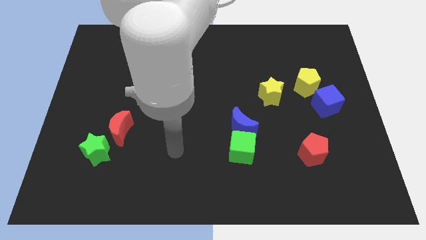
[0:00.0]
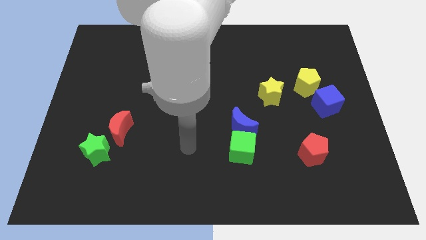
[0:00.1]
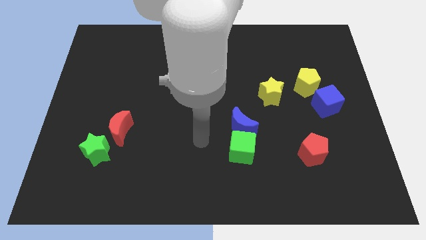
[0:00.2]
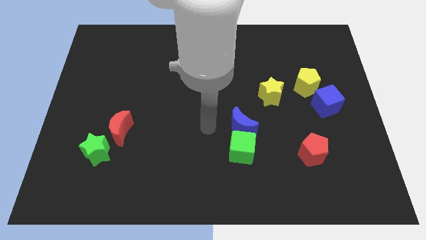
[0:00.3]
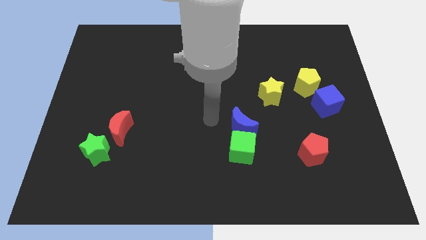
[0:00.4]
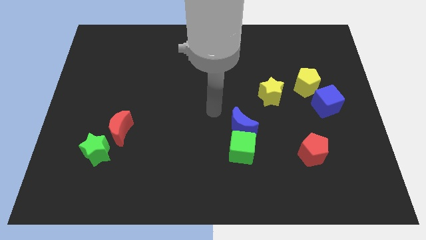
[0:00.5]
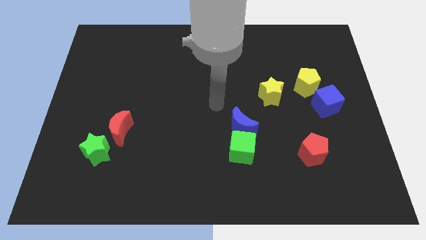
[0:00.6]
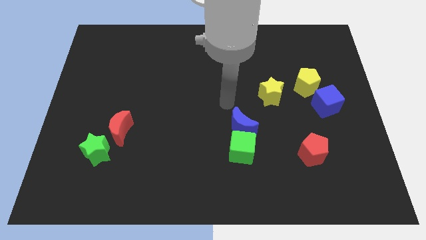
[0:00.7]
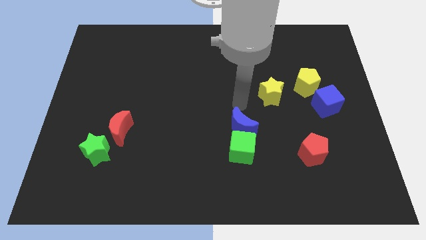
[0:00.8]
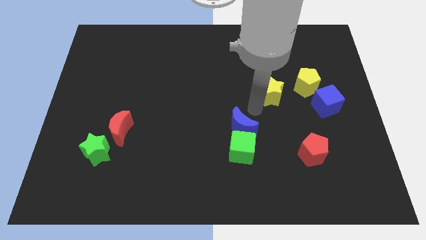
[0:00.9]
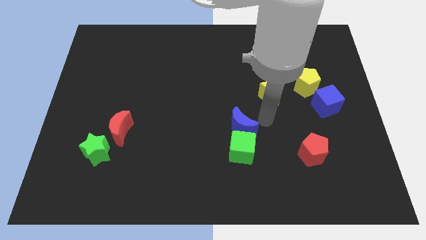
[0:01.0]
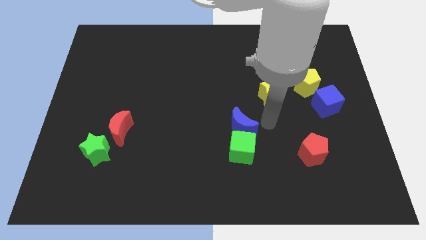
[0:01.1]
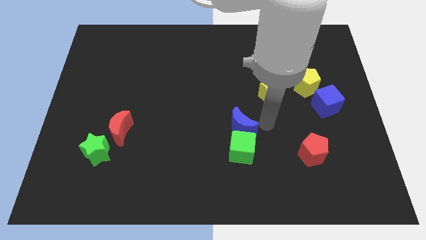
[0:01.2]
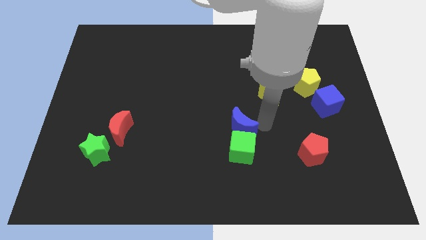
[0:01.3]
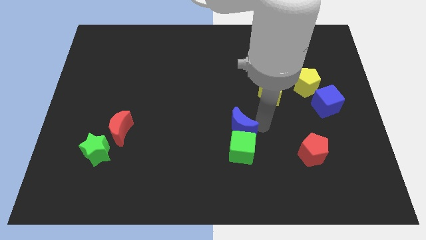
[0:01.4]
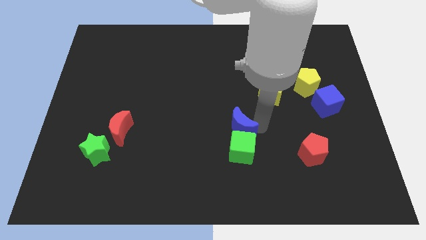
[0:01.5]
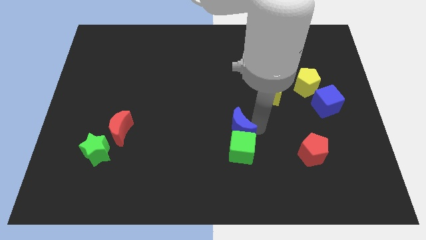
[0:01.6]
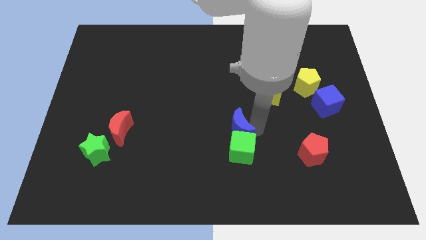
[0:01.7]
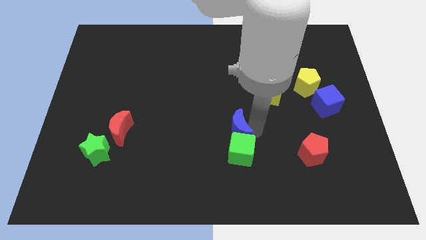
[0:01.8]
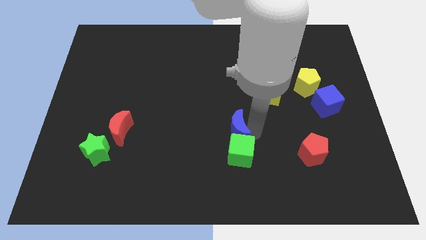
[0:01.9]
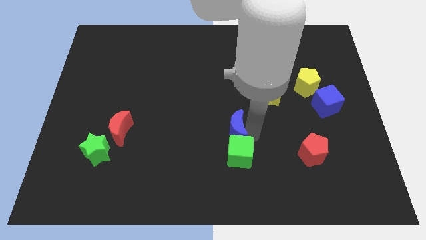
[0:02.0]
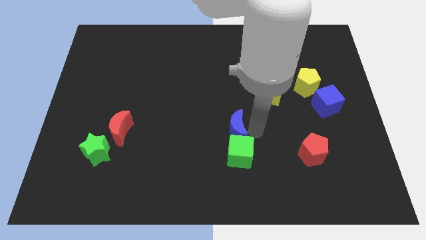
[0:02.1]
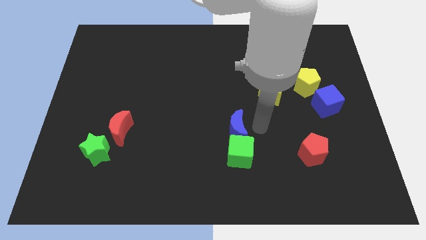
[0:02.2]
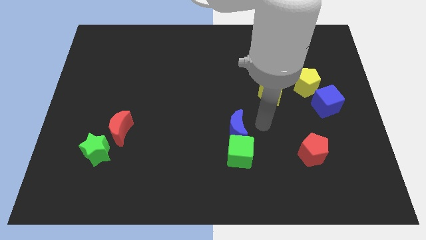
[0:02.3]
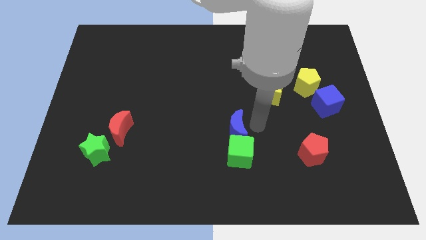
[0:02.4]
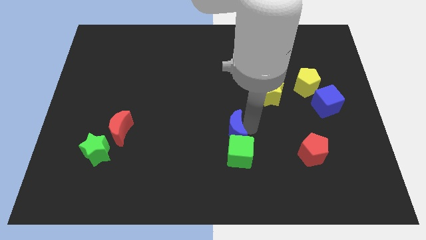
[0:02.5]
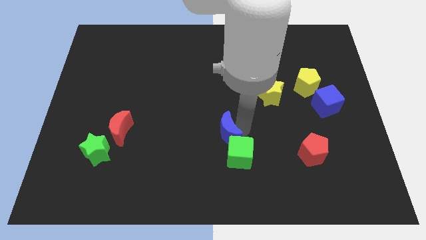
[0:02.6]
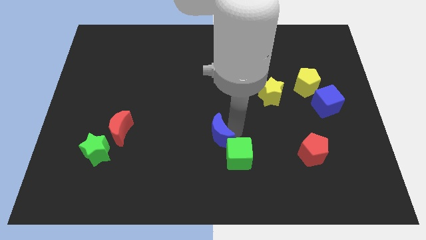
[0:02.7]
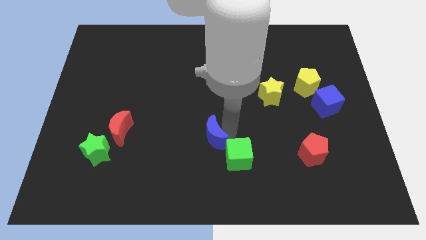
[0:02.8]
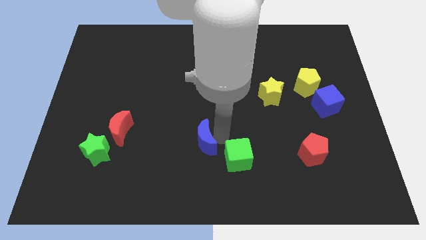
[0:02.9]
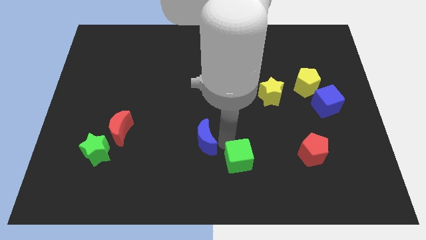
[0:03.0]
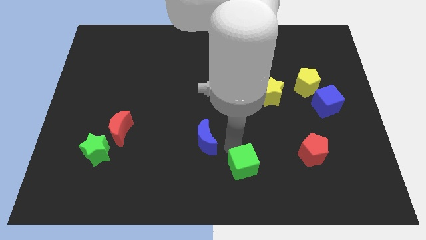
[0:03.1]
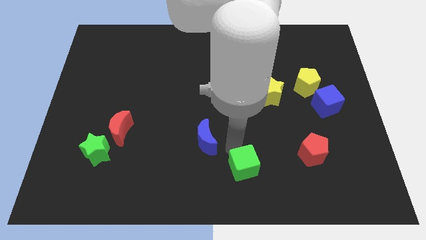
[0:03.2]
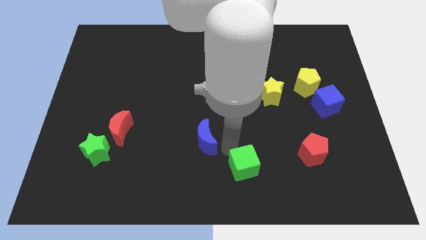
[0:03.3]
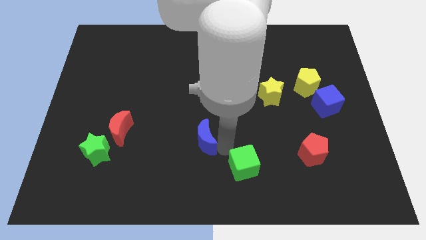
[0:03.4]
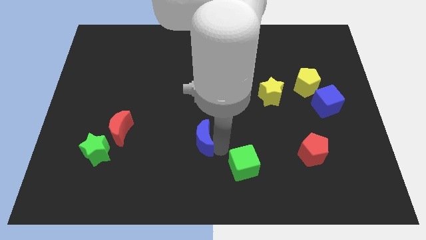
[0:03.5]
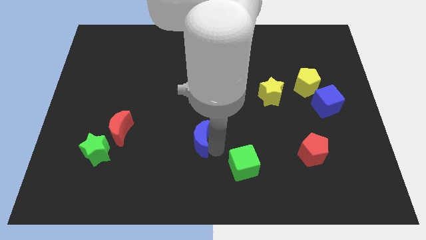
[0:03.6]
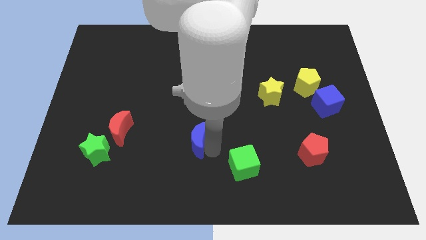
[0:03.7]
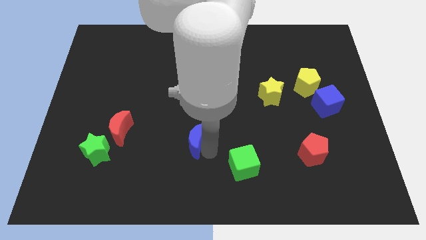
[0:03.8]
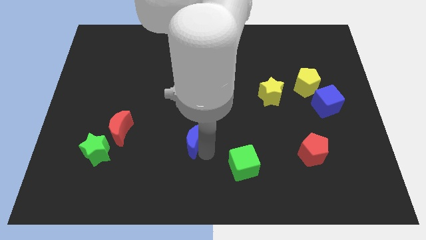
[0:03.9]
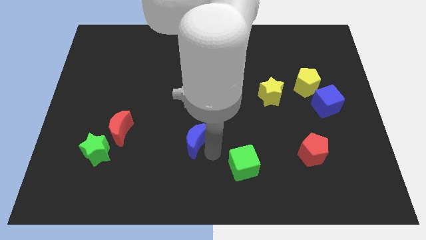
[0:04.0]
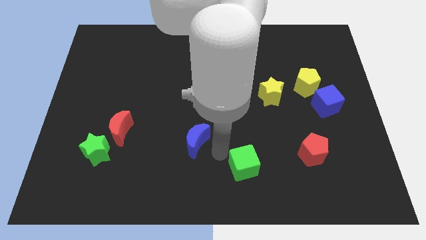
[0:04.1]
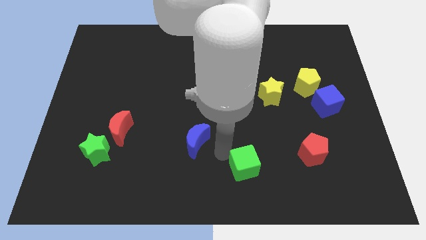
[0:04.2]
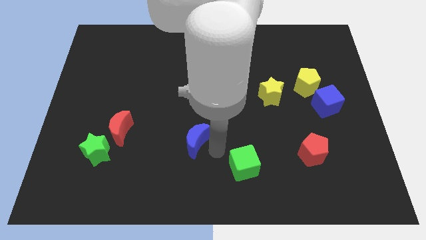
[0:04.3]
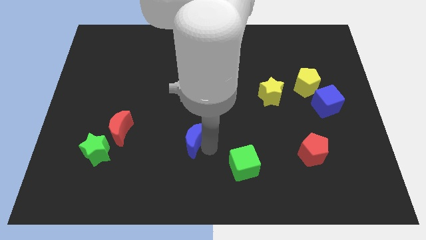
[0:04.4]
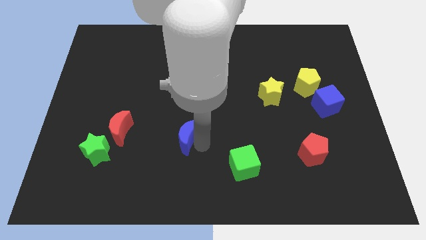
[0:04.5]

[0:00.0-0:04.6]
slide the blue moon to the right of the red moon

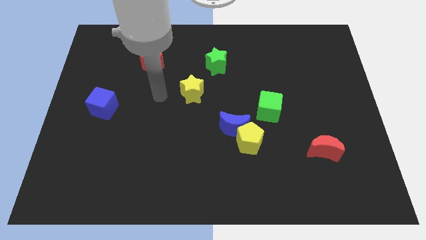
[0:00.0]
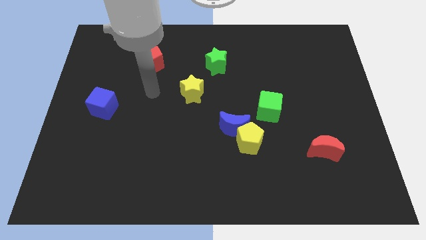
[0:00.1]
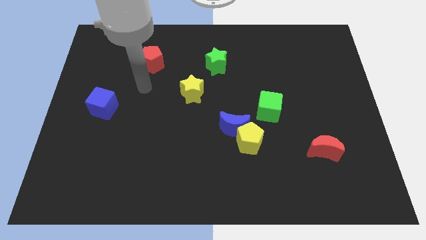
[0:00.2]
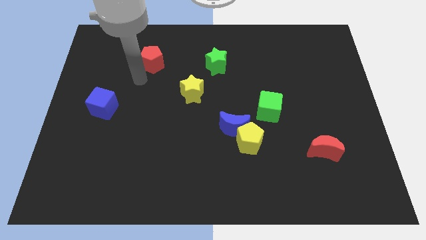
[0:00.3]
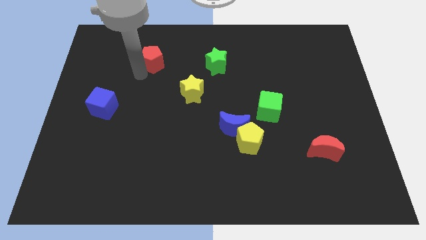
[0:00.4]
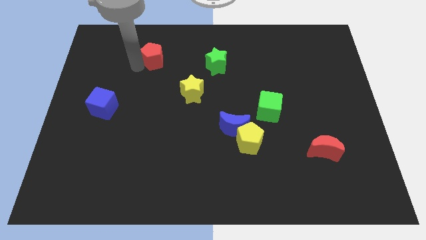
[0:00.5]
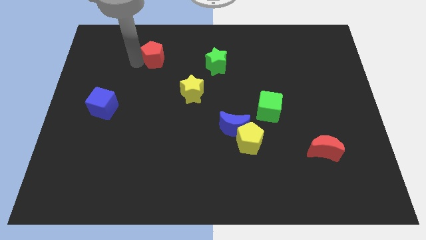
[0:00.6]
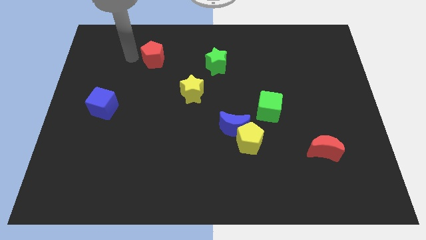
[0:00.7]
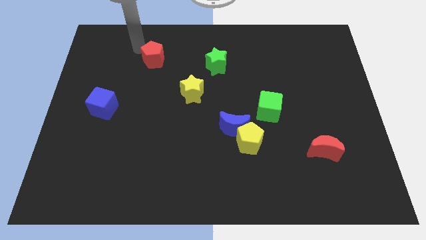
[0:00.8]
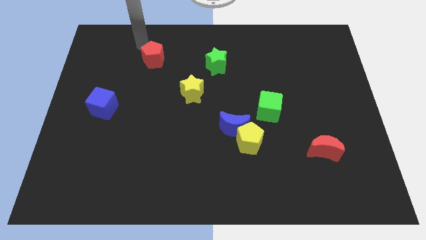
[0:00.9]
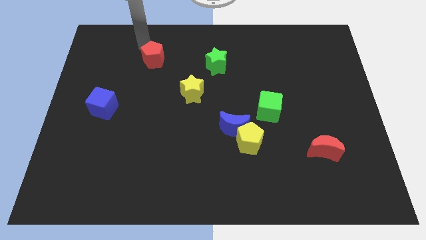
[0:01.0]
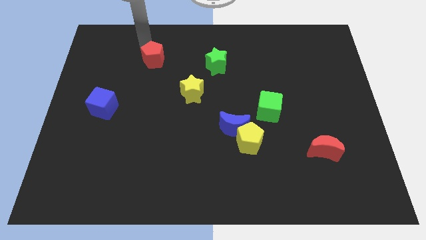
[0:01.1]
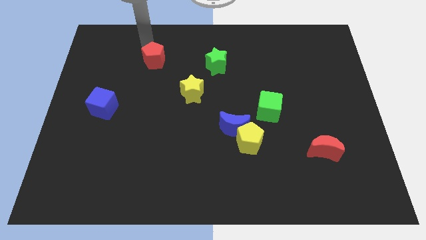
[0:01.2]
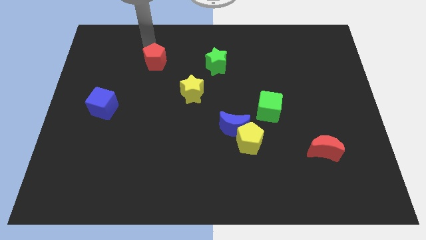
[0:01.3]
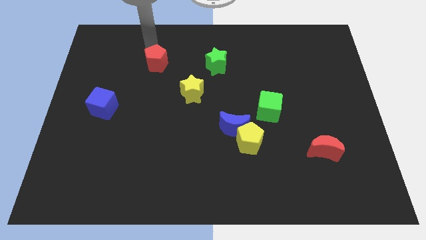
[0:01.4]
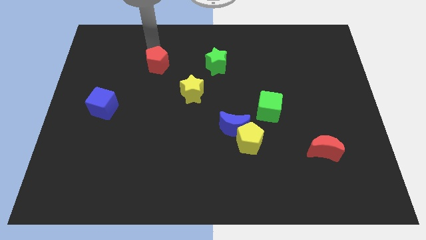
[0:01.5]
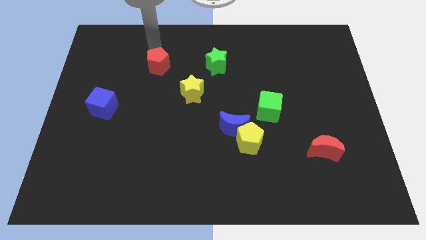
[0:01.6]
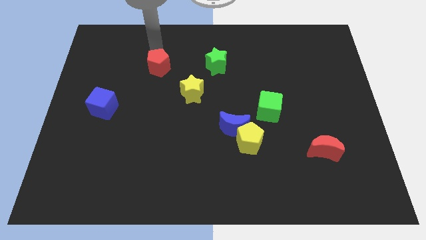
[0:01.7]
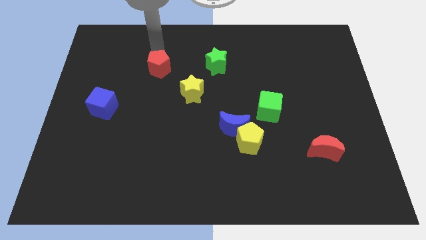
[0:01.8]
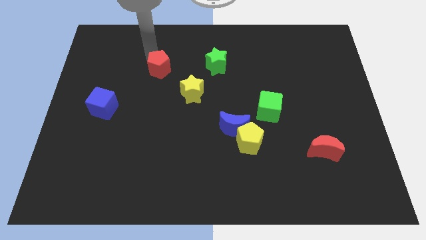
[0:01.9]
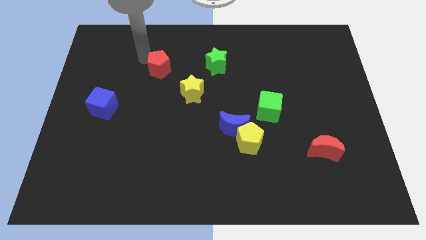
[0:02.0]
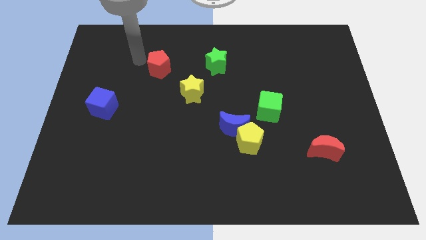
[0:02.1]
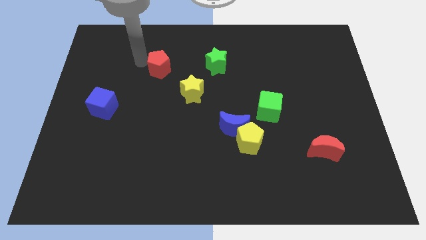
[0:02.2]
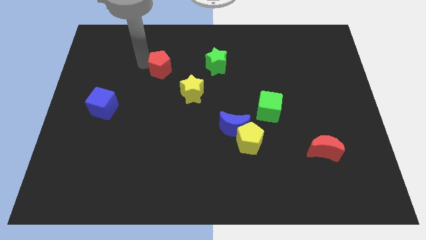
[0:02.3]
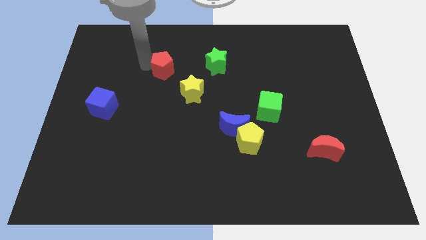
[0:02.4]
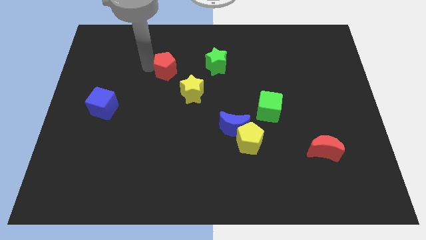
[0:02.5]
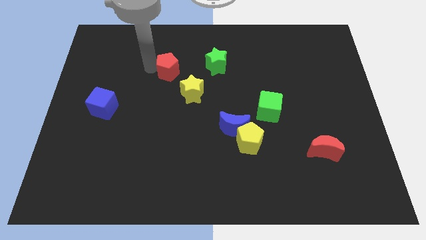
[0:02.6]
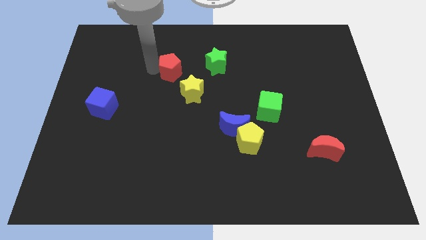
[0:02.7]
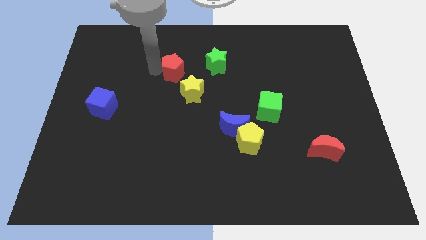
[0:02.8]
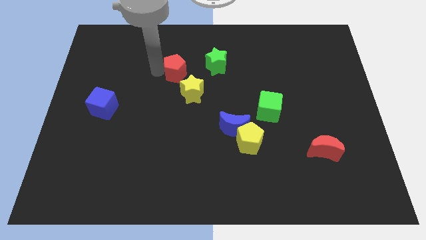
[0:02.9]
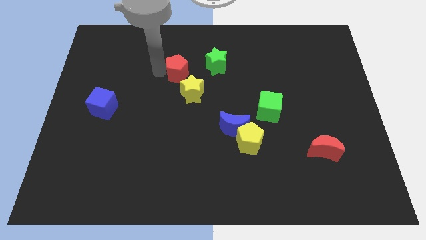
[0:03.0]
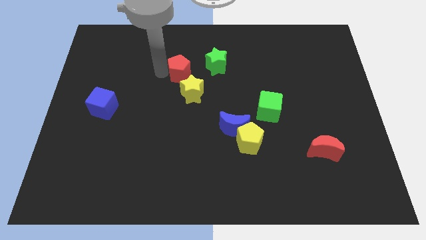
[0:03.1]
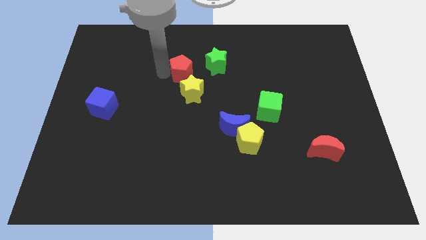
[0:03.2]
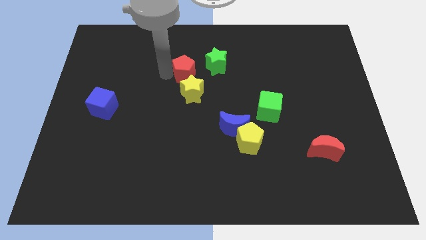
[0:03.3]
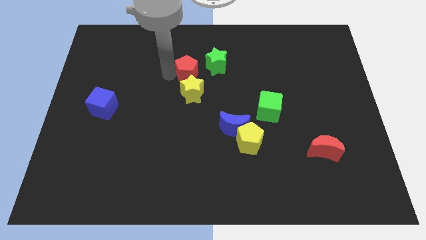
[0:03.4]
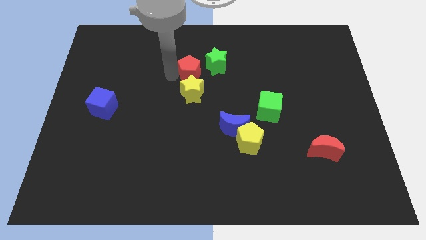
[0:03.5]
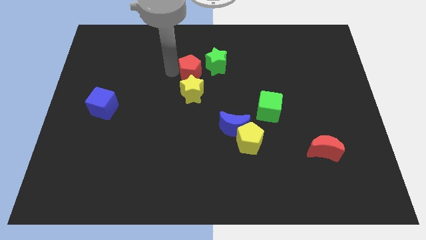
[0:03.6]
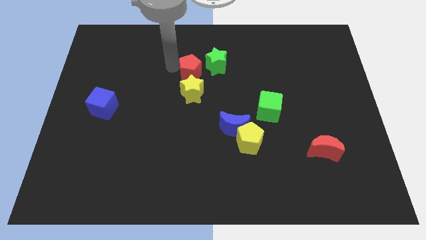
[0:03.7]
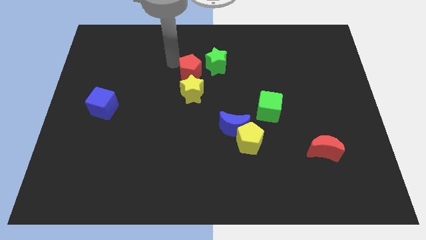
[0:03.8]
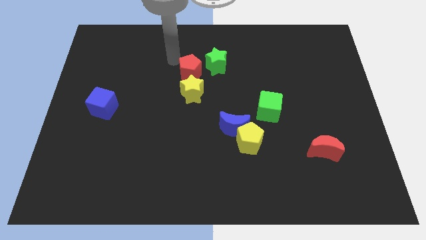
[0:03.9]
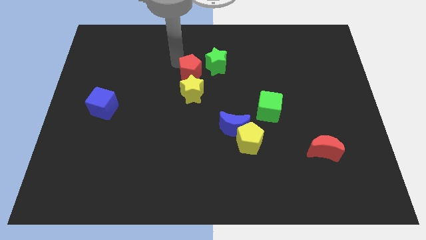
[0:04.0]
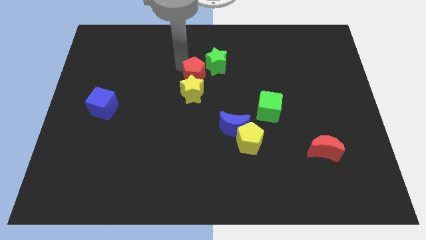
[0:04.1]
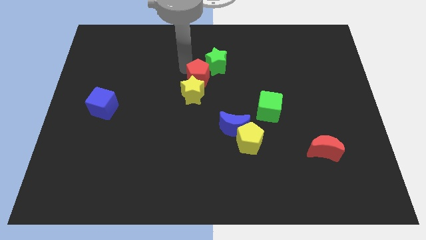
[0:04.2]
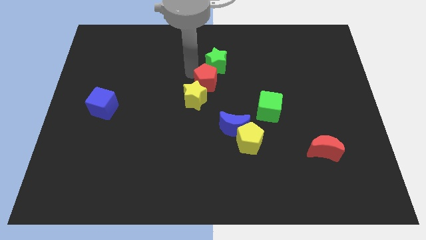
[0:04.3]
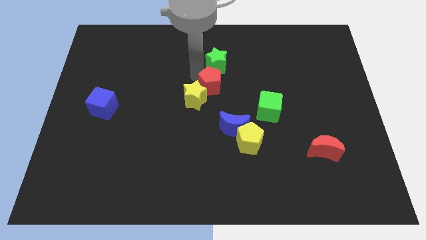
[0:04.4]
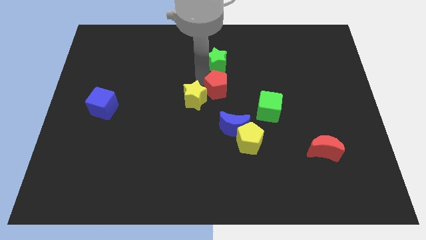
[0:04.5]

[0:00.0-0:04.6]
push the red pentagon above the blue moon
